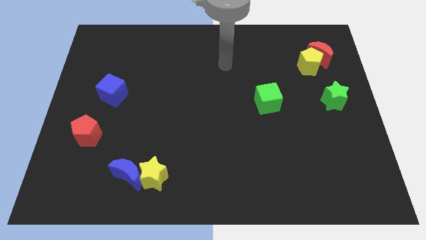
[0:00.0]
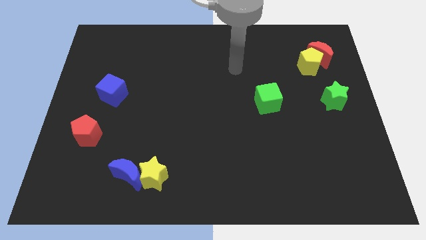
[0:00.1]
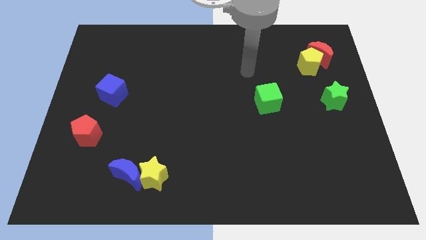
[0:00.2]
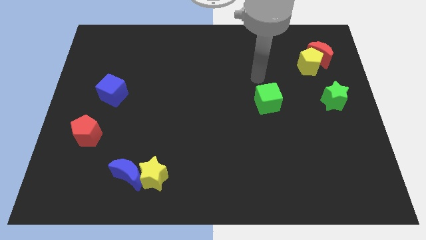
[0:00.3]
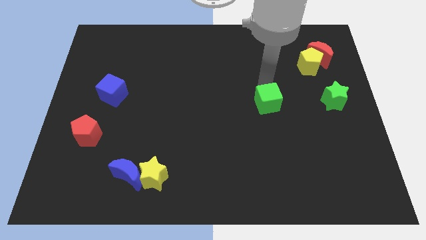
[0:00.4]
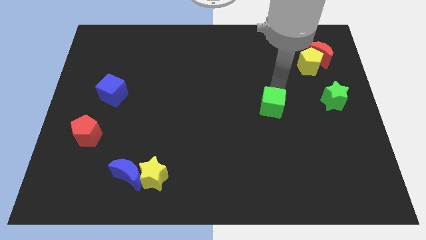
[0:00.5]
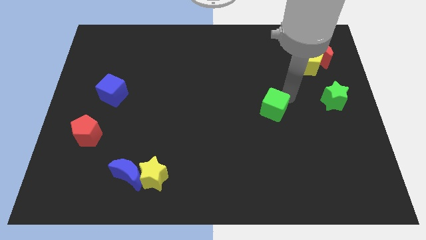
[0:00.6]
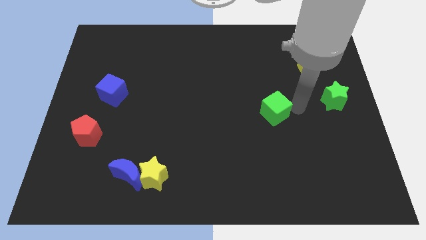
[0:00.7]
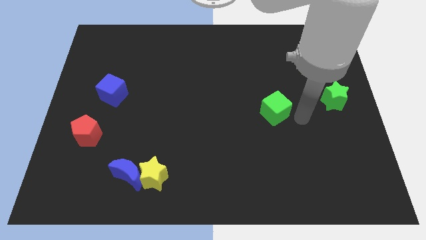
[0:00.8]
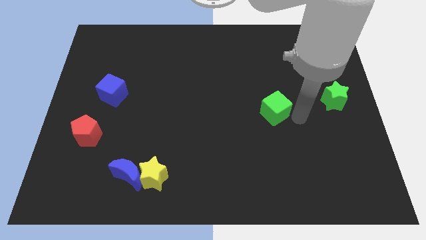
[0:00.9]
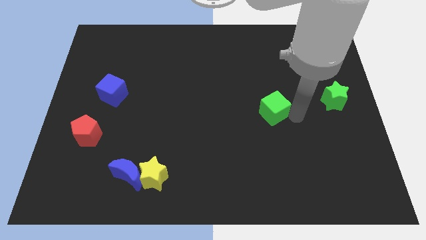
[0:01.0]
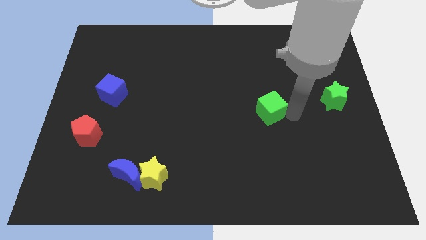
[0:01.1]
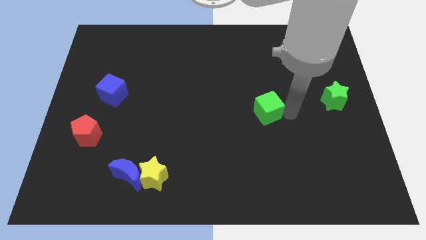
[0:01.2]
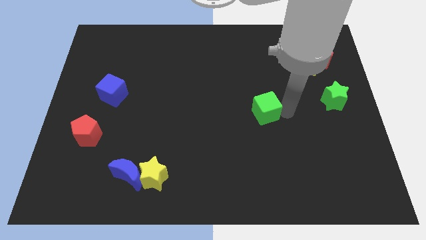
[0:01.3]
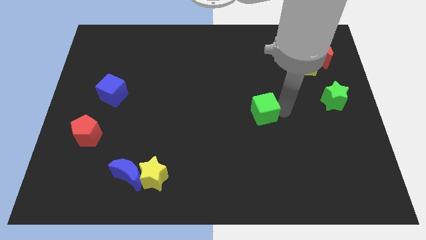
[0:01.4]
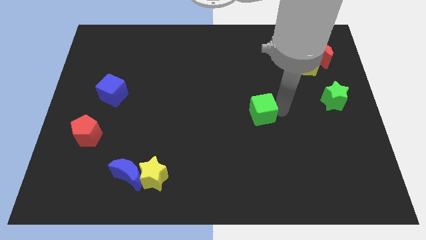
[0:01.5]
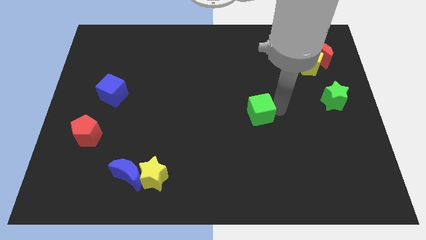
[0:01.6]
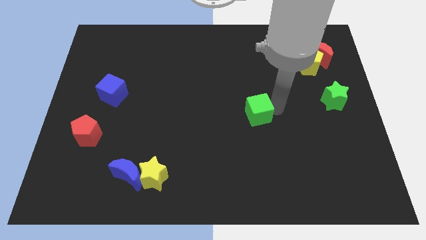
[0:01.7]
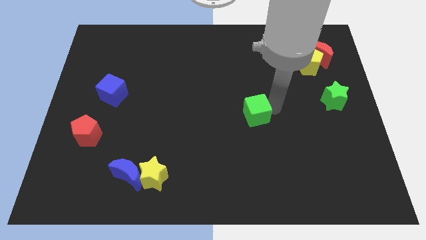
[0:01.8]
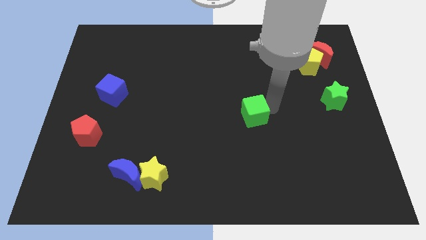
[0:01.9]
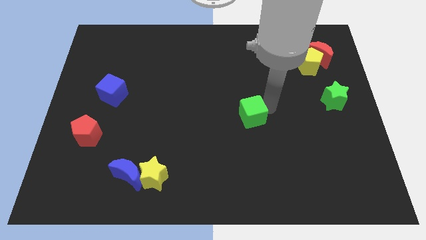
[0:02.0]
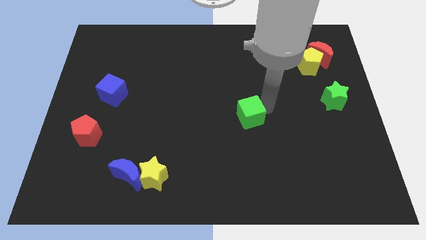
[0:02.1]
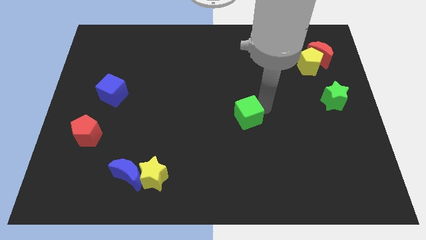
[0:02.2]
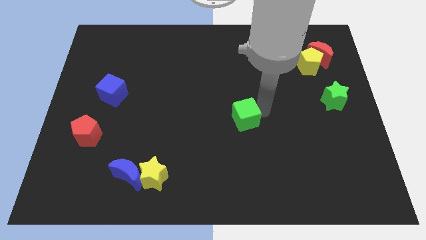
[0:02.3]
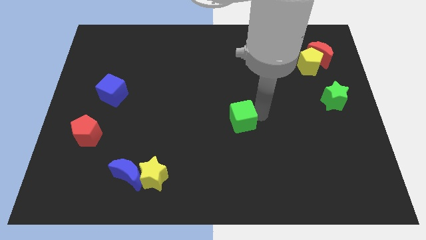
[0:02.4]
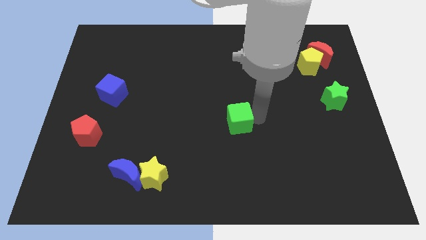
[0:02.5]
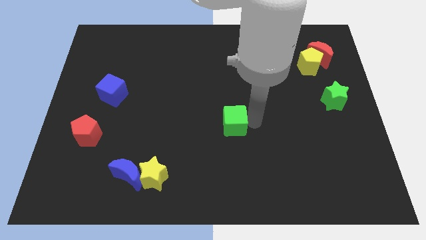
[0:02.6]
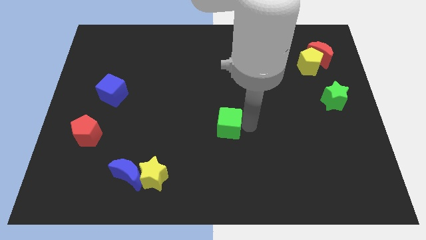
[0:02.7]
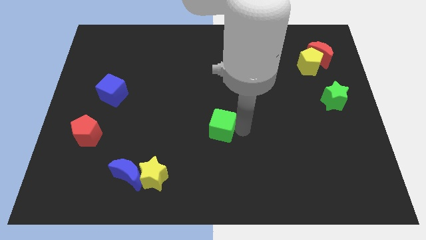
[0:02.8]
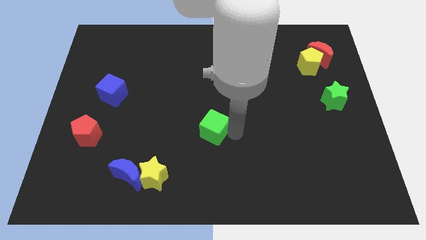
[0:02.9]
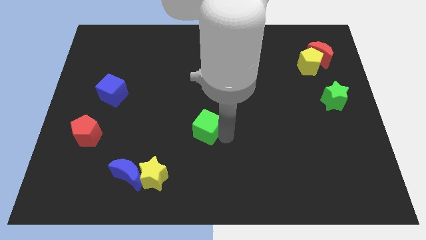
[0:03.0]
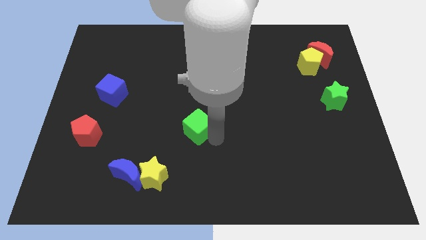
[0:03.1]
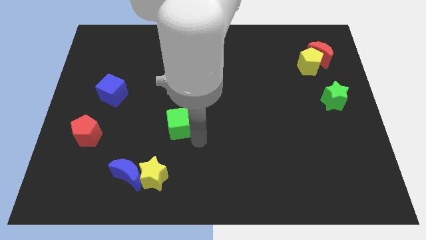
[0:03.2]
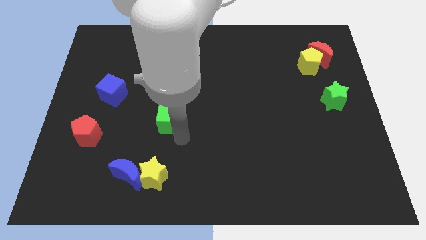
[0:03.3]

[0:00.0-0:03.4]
slide the green cube left

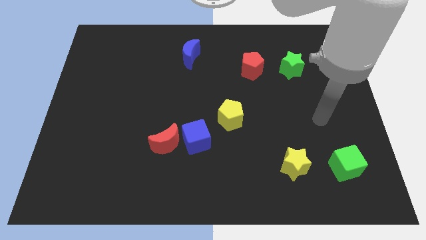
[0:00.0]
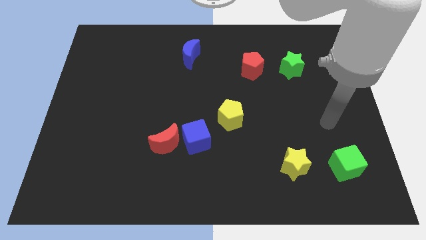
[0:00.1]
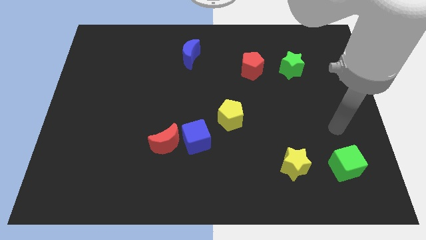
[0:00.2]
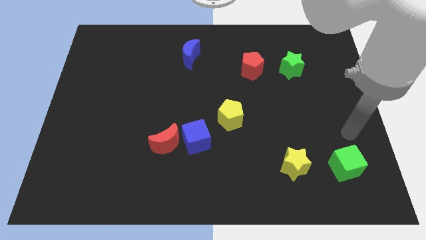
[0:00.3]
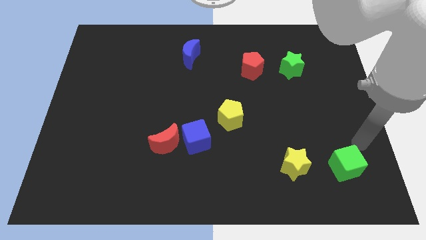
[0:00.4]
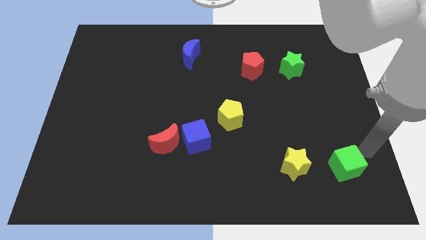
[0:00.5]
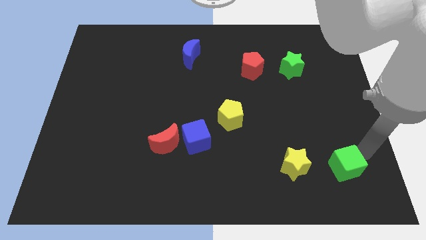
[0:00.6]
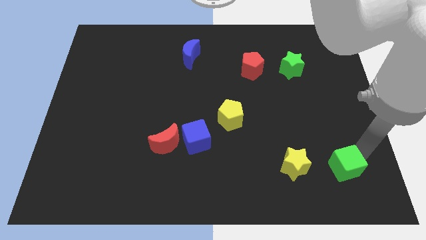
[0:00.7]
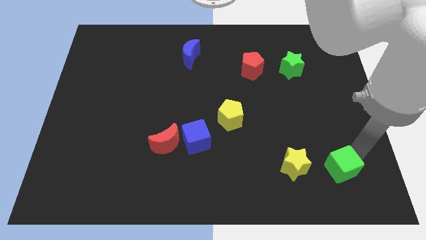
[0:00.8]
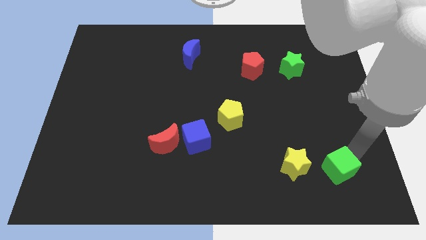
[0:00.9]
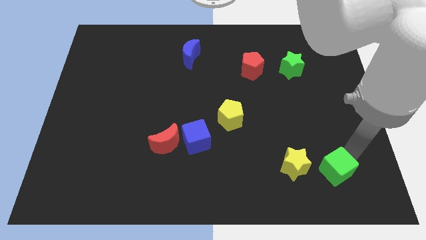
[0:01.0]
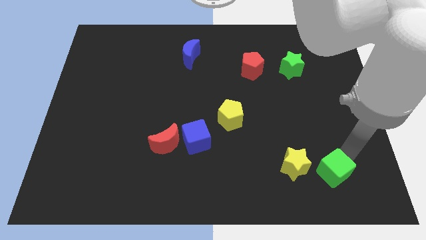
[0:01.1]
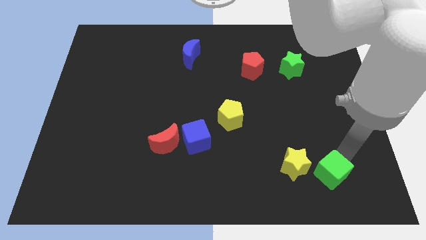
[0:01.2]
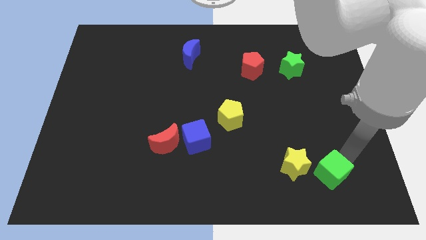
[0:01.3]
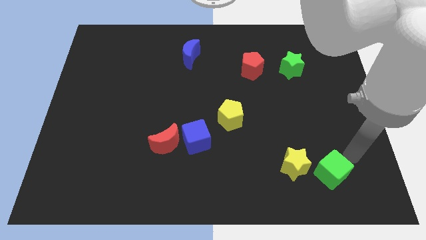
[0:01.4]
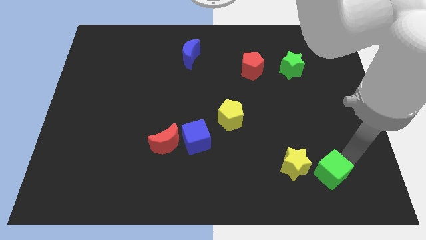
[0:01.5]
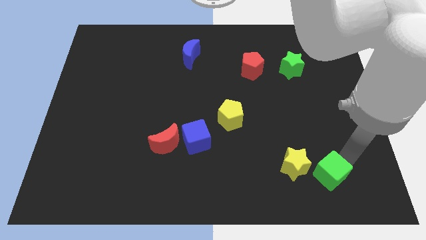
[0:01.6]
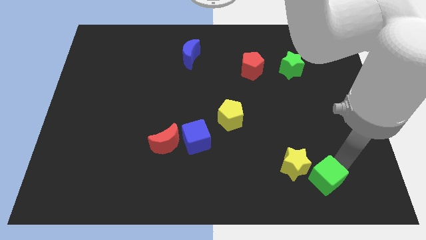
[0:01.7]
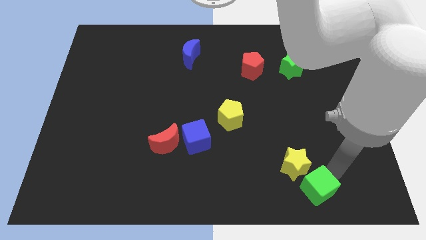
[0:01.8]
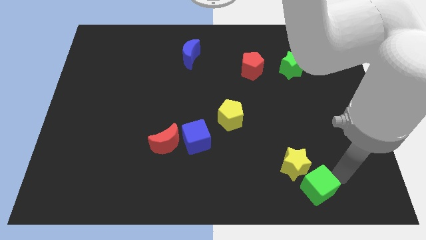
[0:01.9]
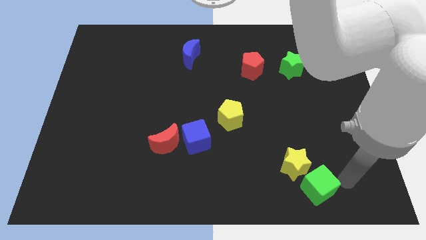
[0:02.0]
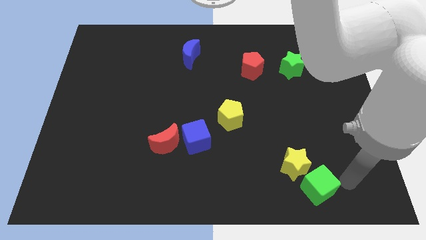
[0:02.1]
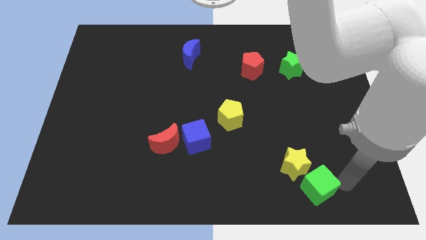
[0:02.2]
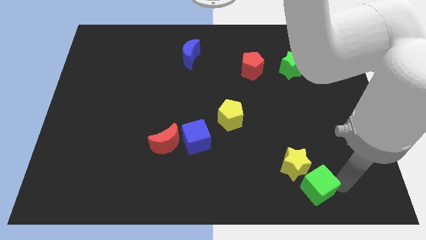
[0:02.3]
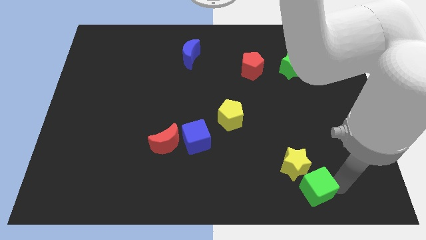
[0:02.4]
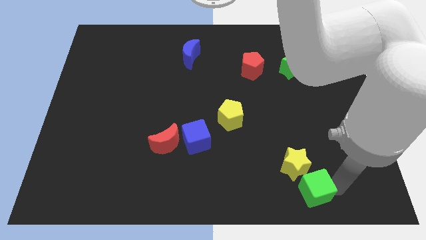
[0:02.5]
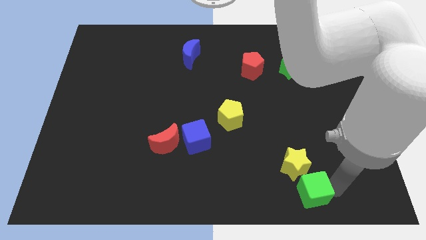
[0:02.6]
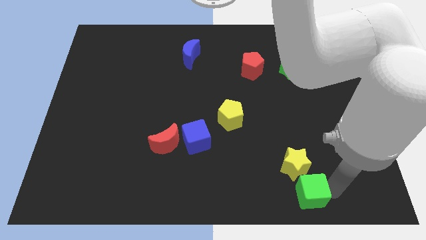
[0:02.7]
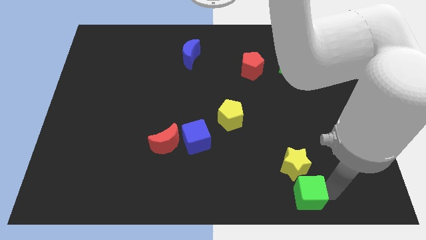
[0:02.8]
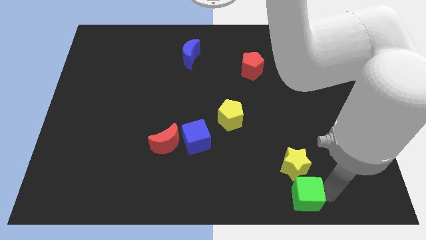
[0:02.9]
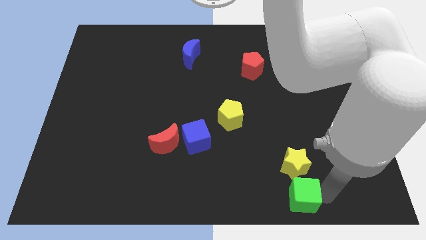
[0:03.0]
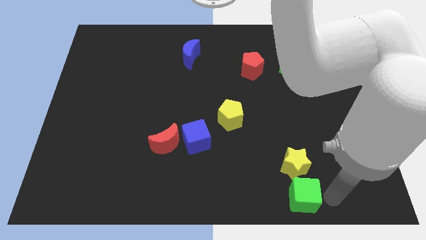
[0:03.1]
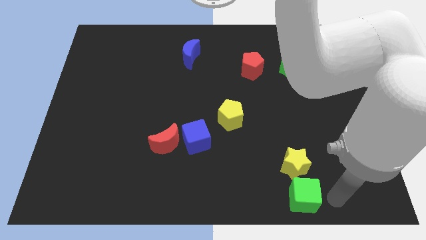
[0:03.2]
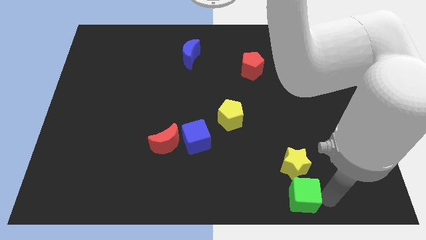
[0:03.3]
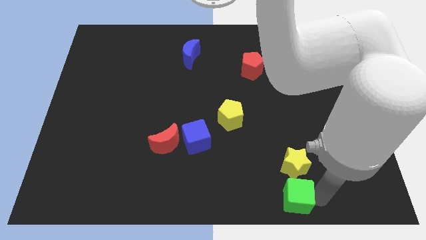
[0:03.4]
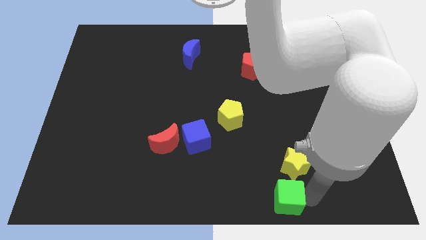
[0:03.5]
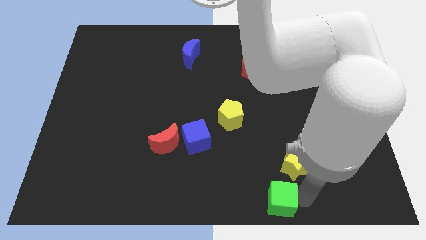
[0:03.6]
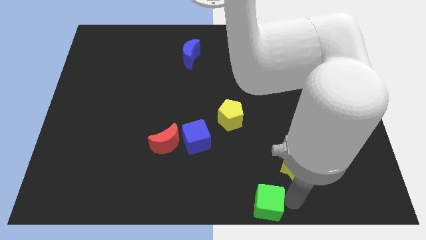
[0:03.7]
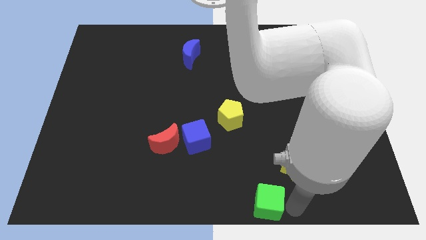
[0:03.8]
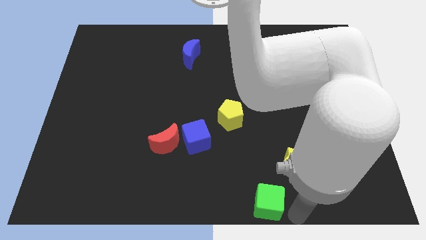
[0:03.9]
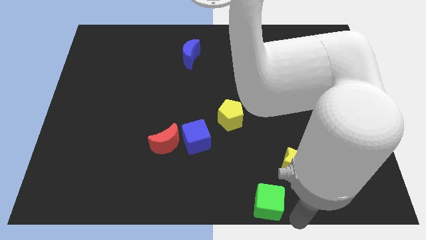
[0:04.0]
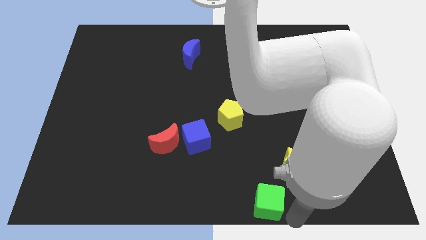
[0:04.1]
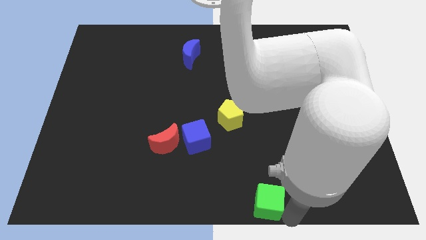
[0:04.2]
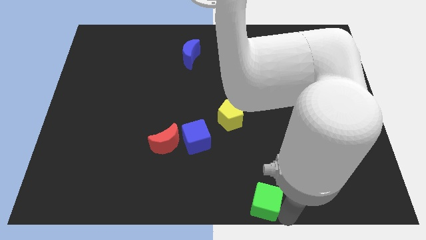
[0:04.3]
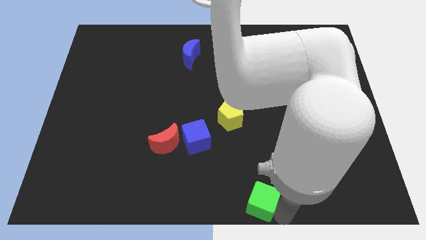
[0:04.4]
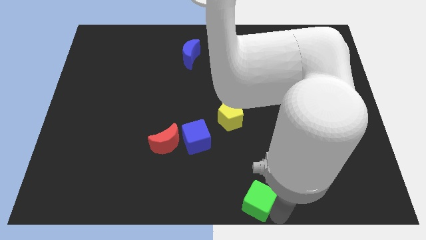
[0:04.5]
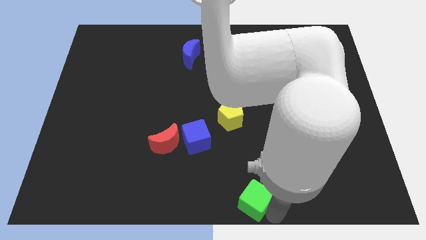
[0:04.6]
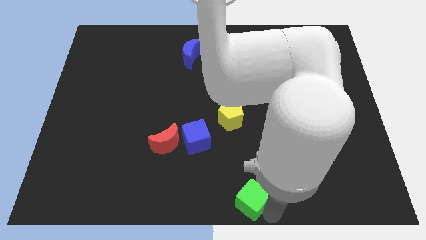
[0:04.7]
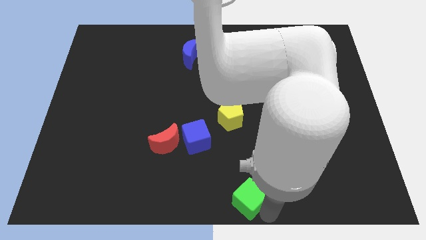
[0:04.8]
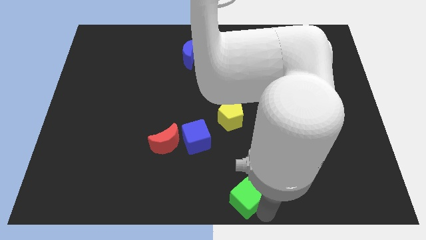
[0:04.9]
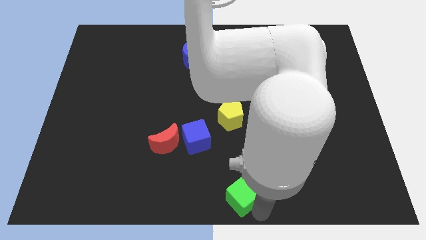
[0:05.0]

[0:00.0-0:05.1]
push the green cube to the left
